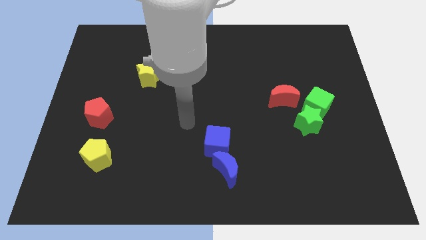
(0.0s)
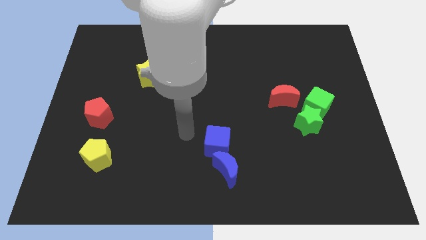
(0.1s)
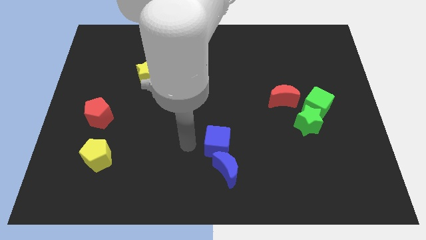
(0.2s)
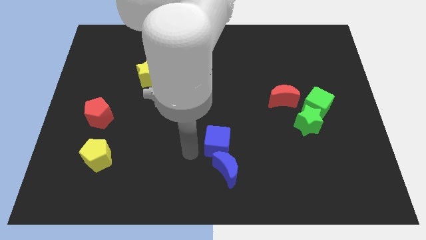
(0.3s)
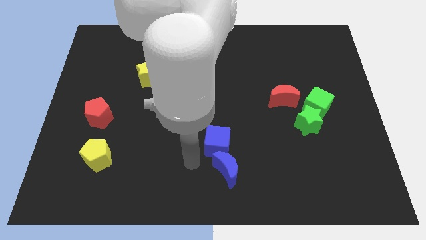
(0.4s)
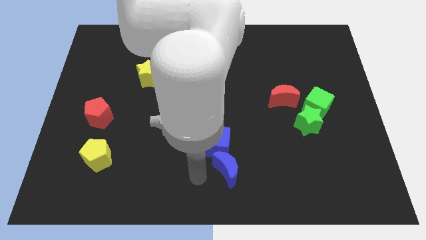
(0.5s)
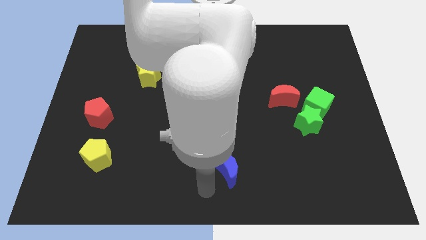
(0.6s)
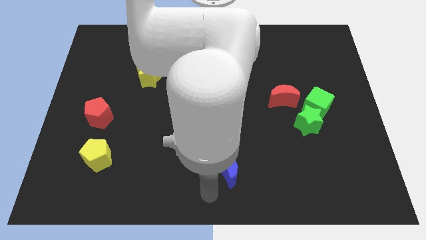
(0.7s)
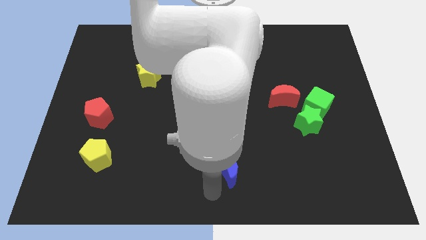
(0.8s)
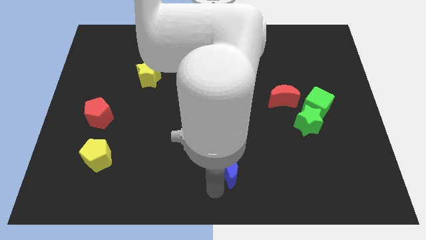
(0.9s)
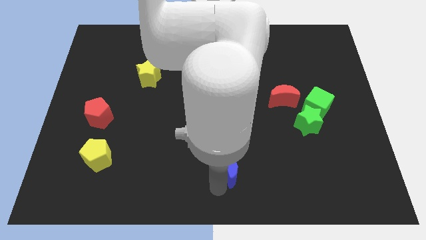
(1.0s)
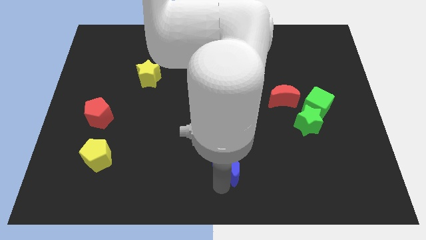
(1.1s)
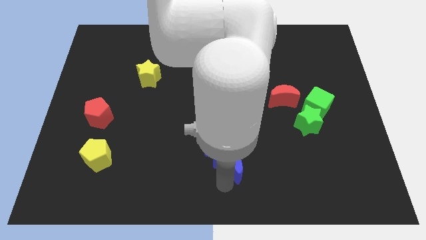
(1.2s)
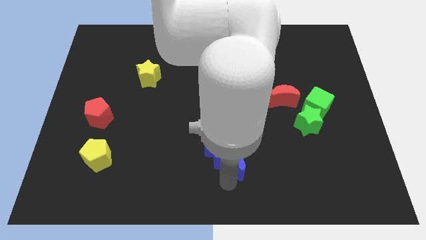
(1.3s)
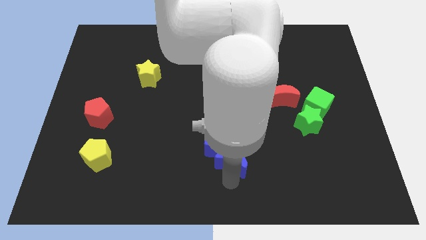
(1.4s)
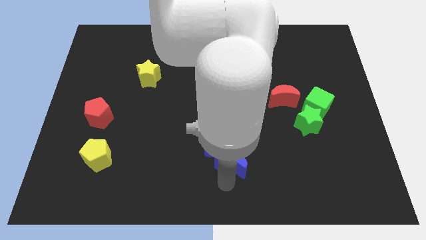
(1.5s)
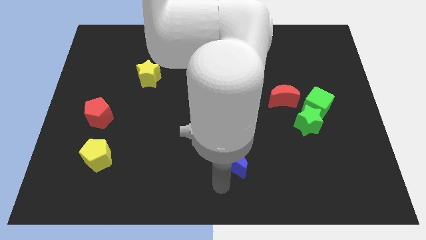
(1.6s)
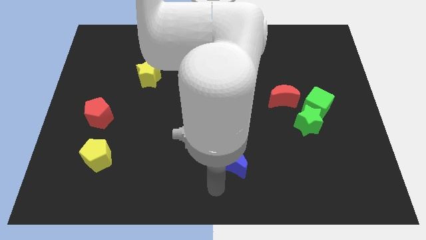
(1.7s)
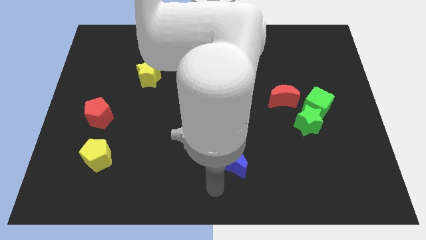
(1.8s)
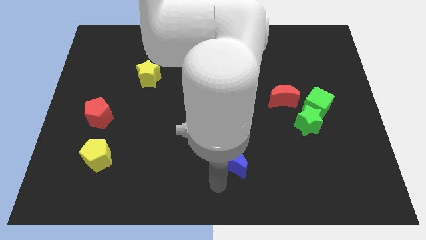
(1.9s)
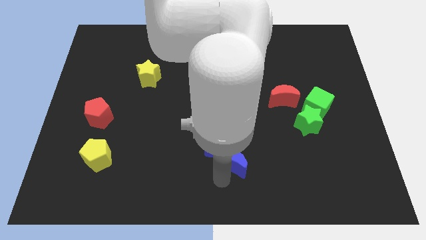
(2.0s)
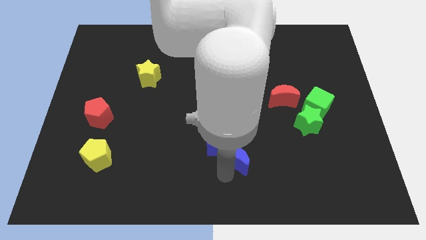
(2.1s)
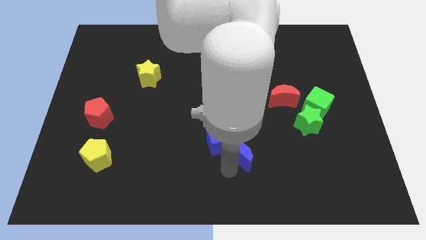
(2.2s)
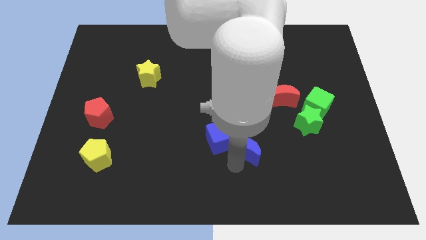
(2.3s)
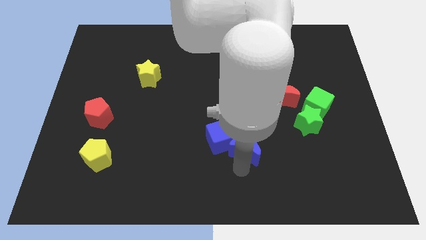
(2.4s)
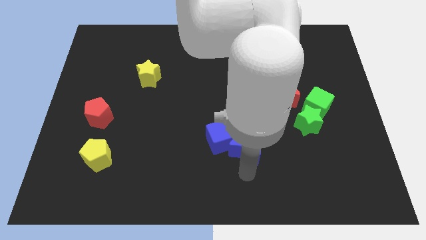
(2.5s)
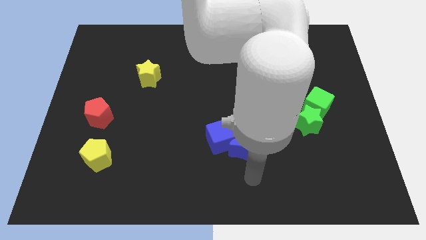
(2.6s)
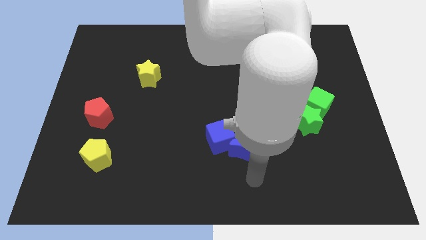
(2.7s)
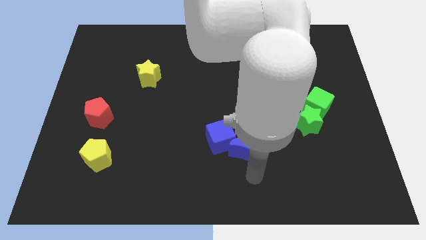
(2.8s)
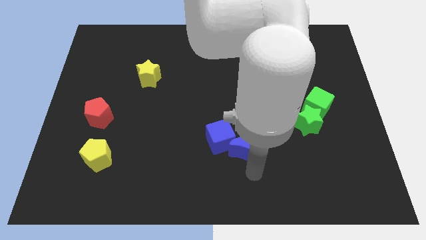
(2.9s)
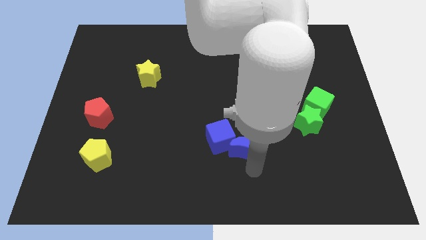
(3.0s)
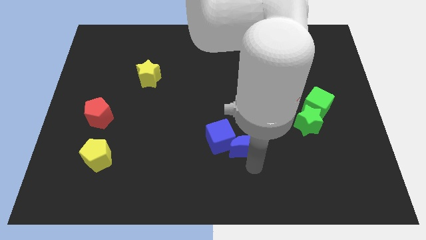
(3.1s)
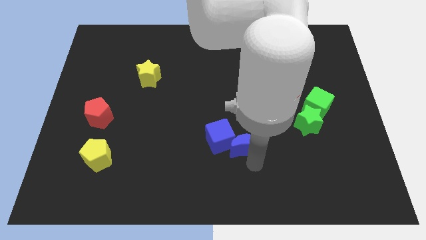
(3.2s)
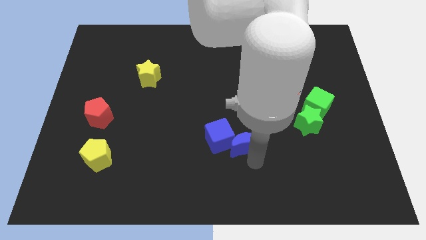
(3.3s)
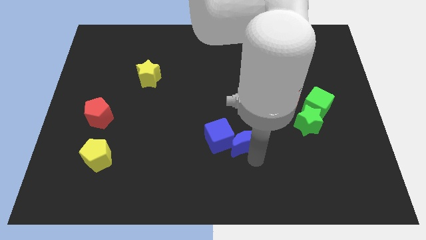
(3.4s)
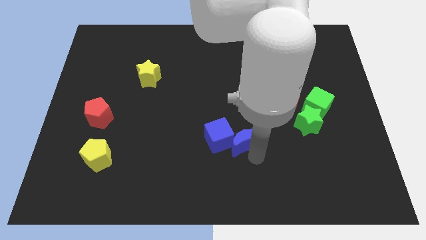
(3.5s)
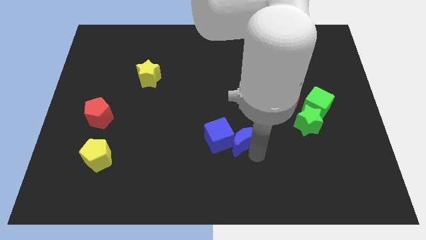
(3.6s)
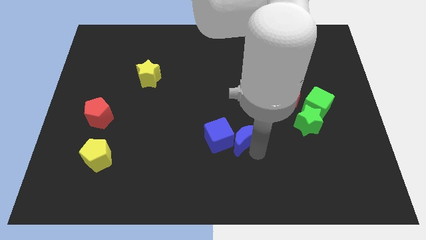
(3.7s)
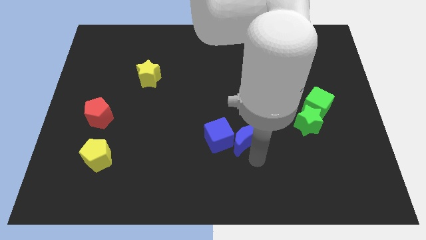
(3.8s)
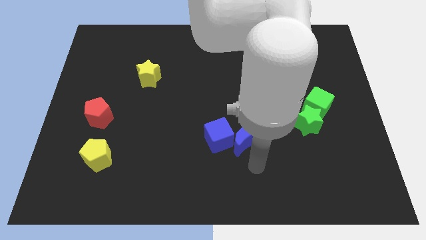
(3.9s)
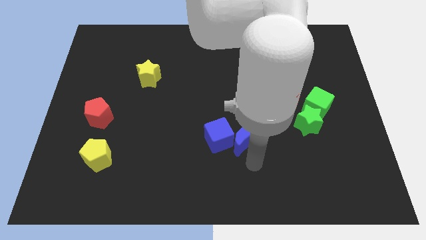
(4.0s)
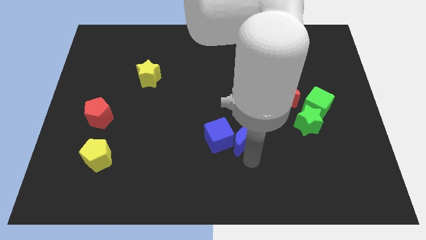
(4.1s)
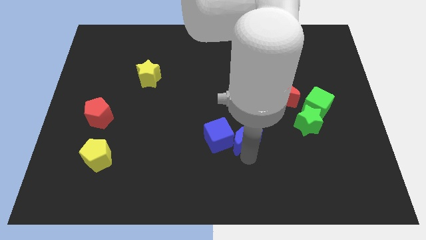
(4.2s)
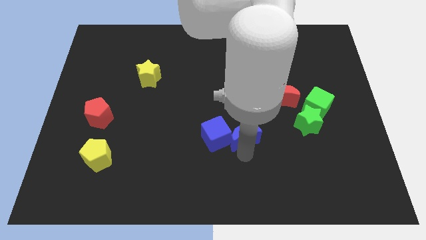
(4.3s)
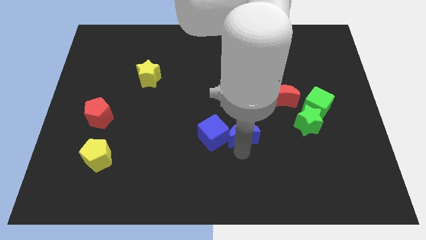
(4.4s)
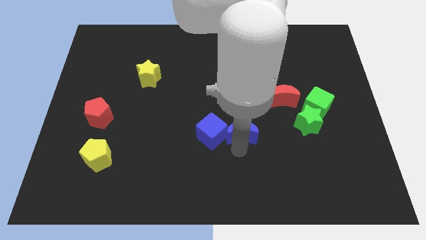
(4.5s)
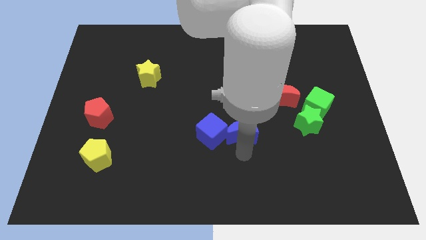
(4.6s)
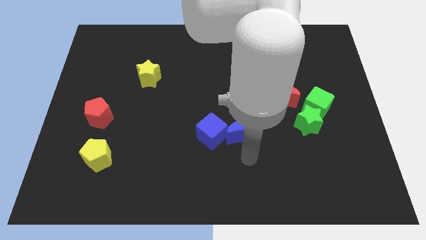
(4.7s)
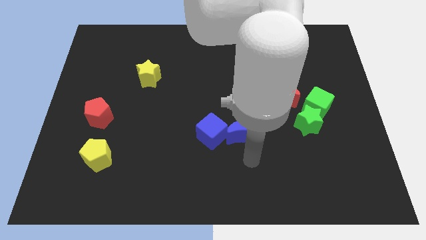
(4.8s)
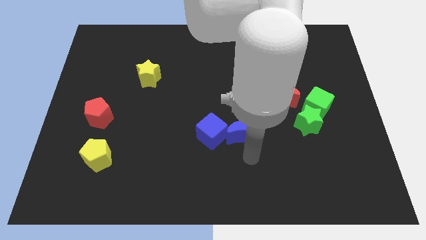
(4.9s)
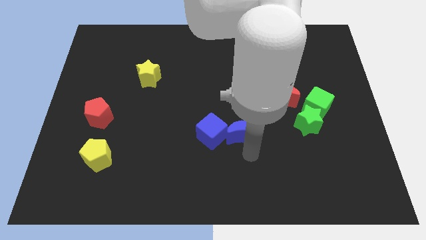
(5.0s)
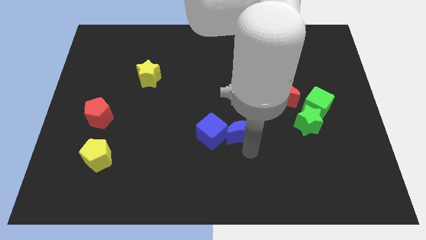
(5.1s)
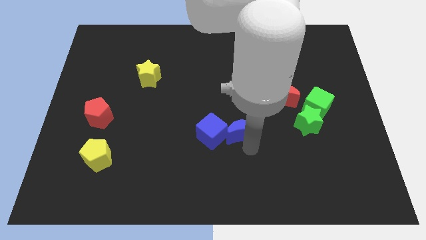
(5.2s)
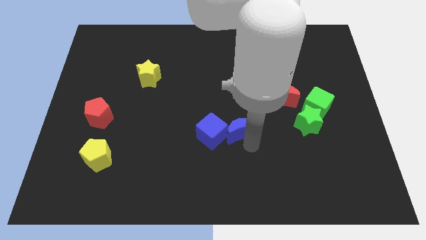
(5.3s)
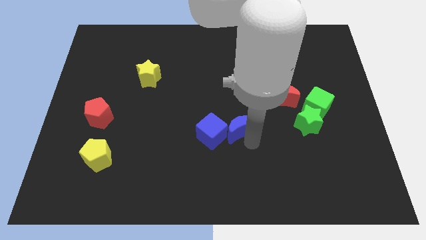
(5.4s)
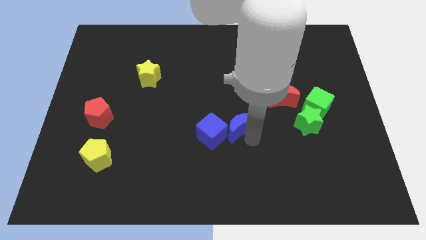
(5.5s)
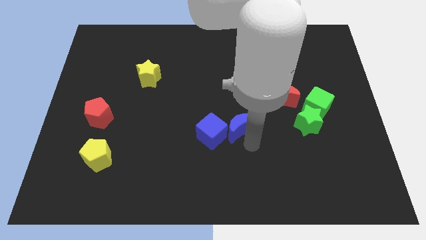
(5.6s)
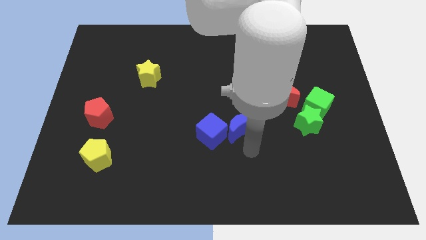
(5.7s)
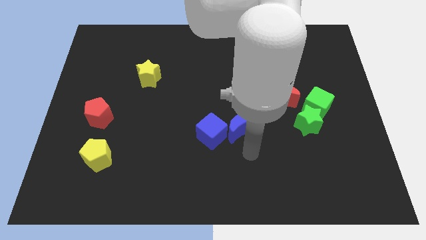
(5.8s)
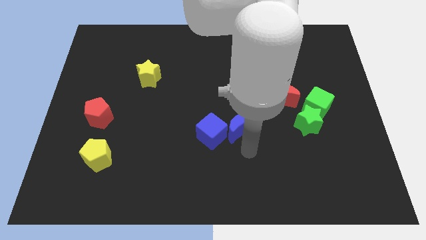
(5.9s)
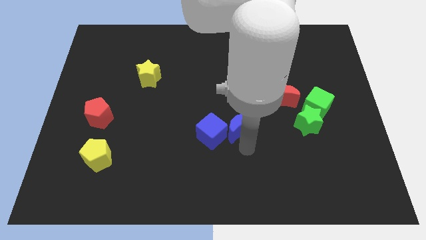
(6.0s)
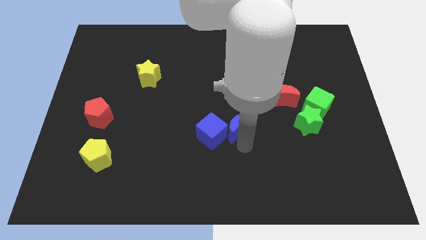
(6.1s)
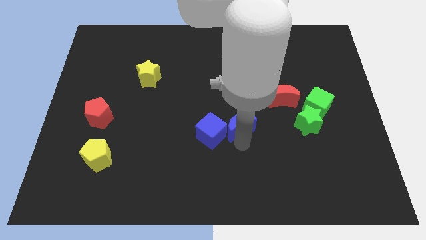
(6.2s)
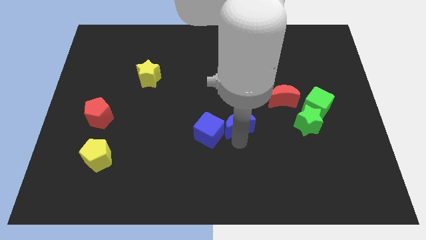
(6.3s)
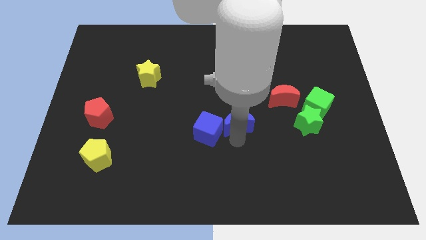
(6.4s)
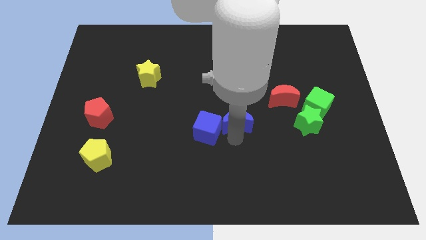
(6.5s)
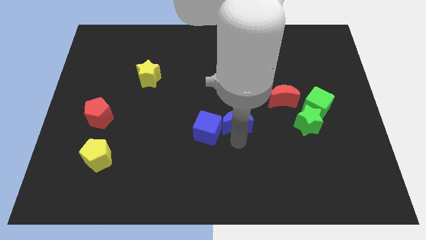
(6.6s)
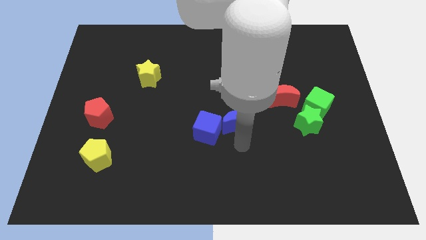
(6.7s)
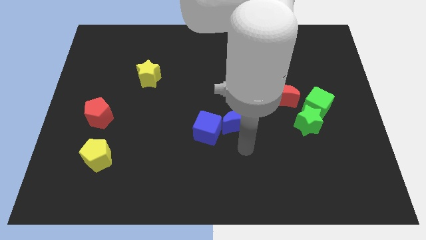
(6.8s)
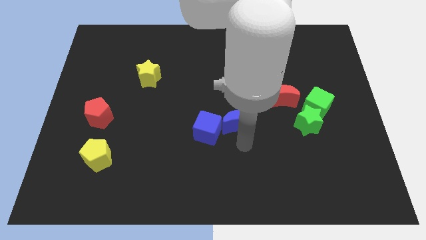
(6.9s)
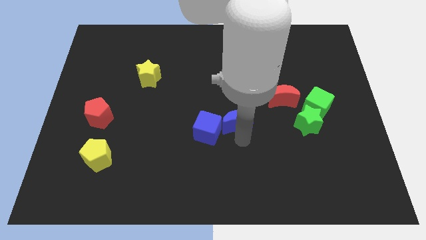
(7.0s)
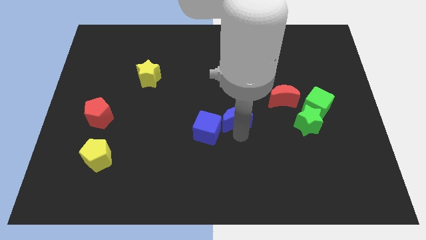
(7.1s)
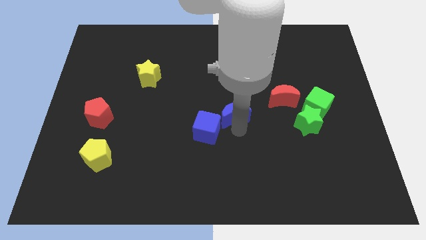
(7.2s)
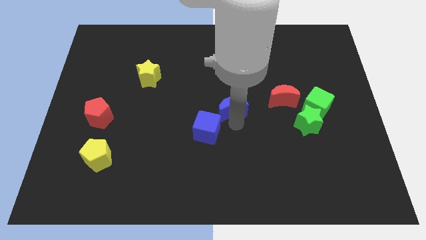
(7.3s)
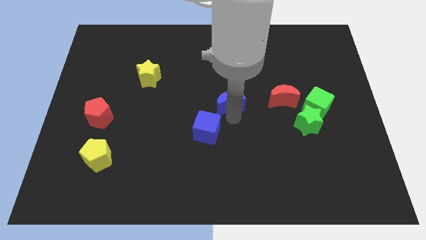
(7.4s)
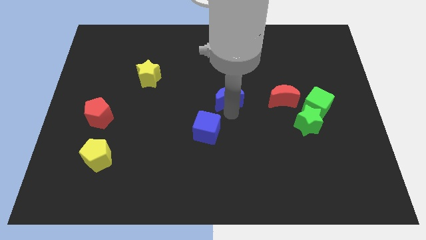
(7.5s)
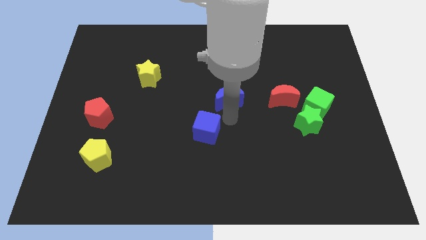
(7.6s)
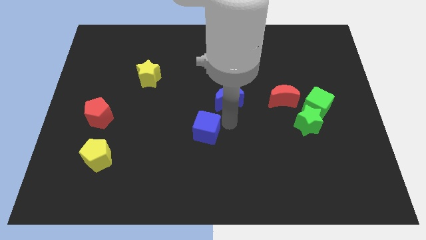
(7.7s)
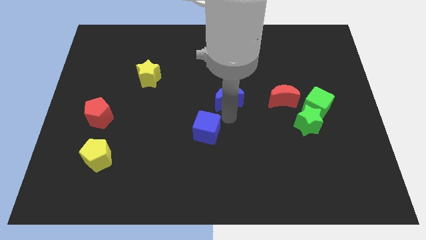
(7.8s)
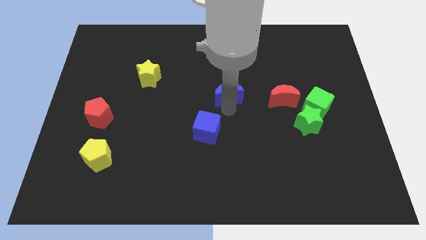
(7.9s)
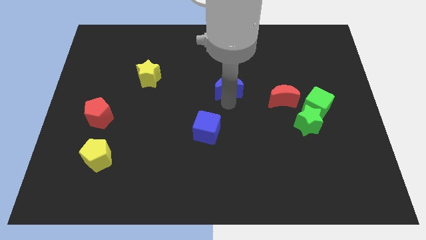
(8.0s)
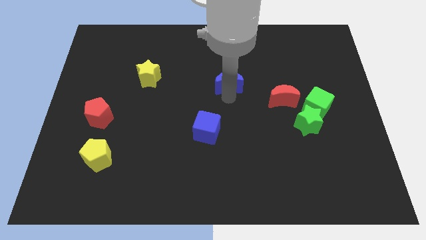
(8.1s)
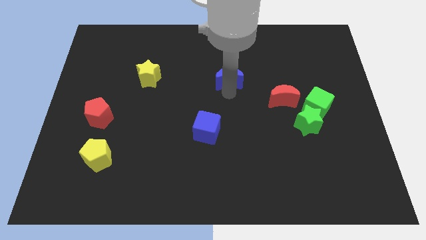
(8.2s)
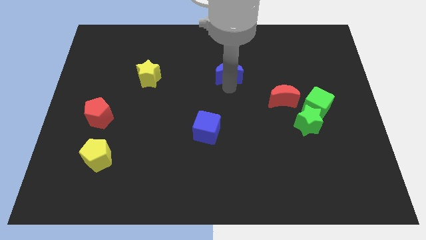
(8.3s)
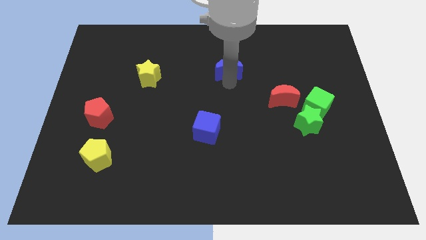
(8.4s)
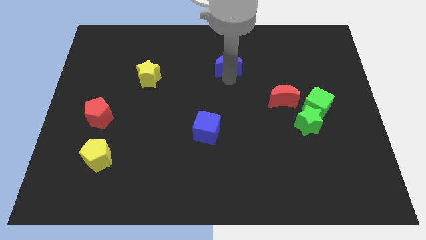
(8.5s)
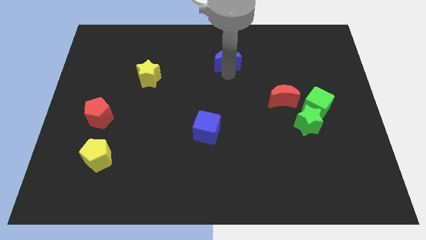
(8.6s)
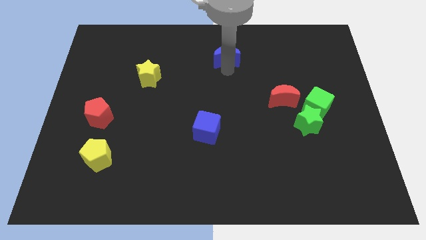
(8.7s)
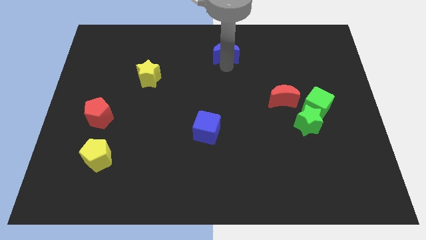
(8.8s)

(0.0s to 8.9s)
move the blue moon to the top side
